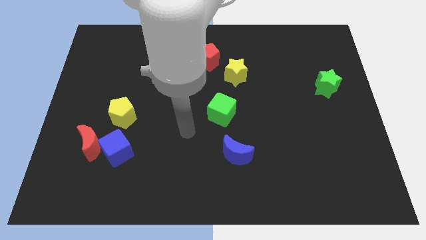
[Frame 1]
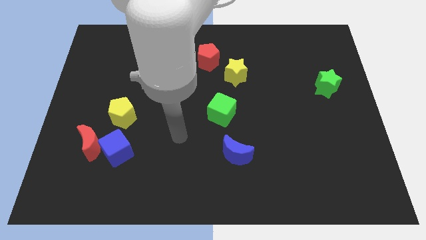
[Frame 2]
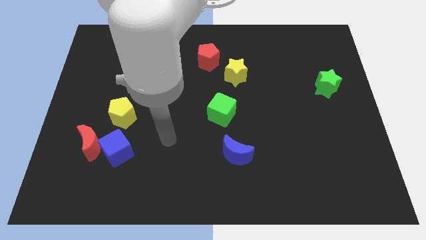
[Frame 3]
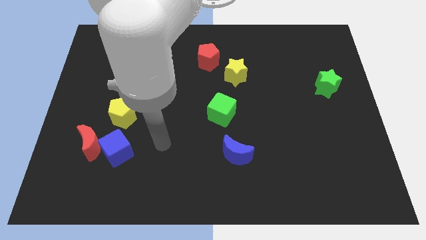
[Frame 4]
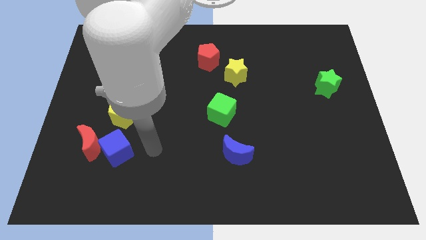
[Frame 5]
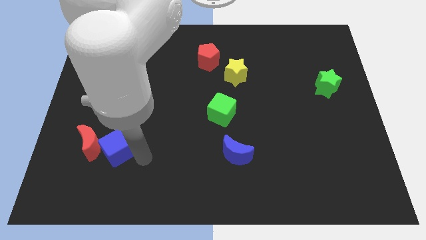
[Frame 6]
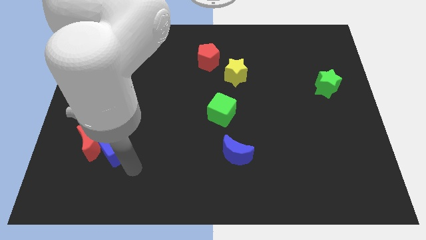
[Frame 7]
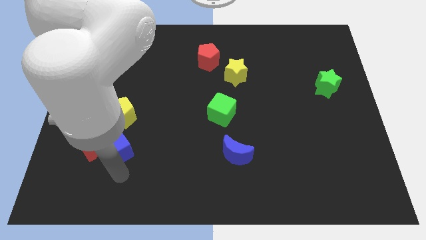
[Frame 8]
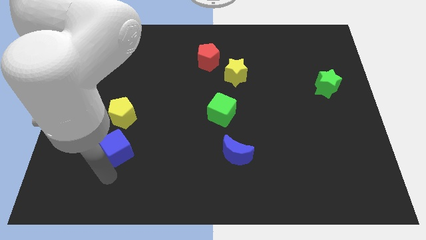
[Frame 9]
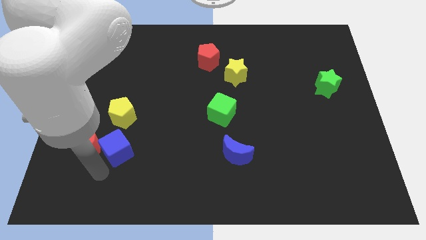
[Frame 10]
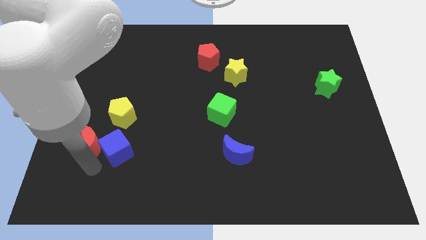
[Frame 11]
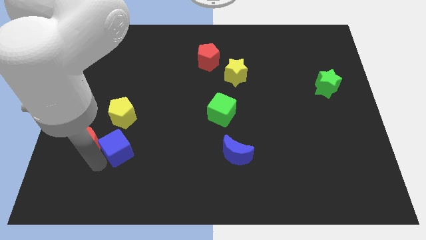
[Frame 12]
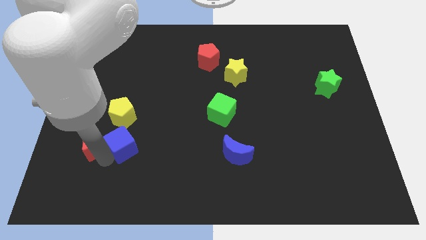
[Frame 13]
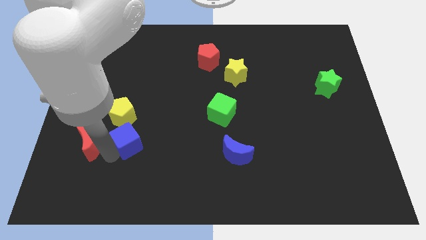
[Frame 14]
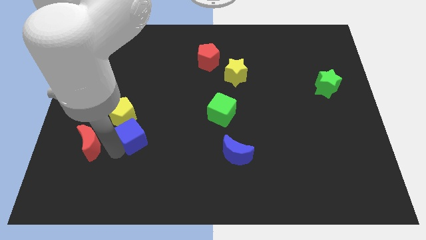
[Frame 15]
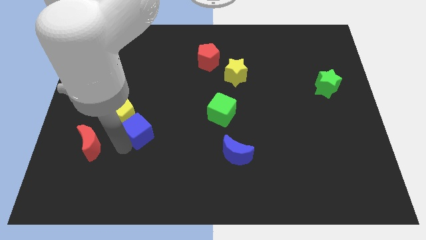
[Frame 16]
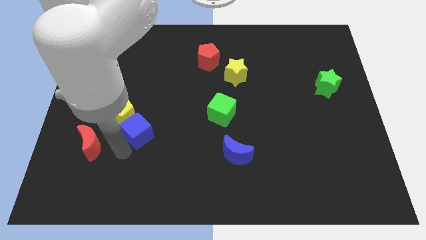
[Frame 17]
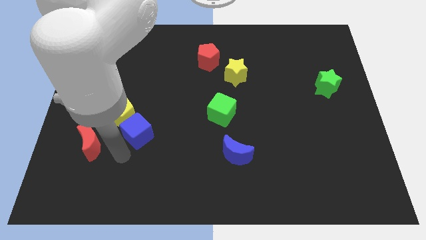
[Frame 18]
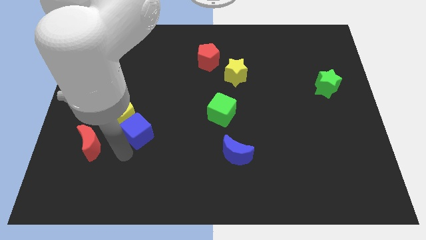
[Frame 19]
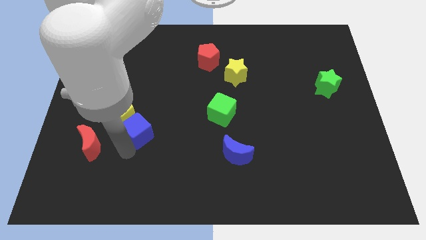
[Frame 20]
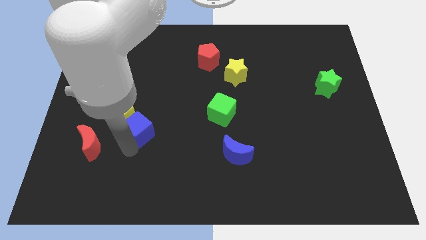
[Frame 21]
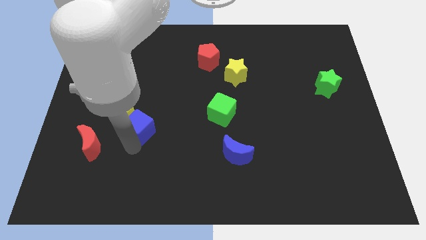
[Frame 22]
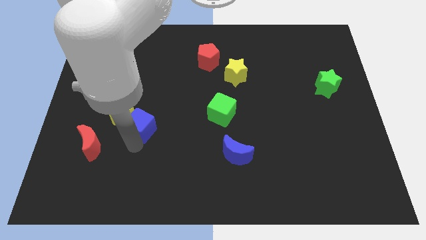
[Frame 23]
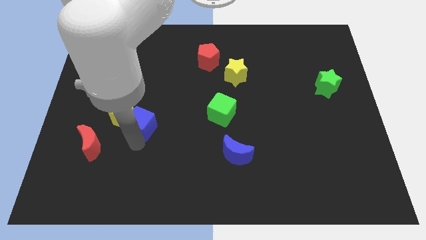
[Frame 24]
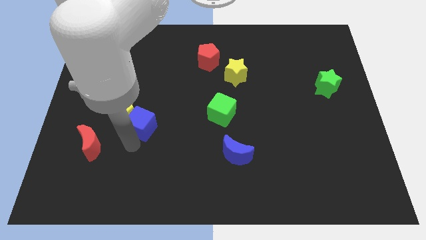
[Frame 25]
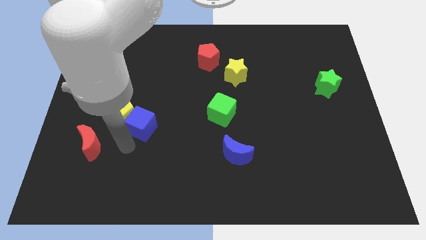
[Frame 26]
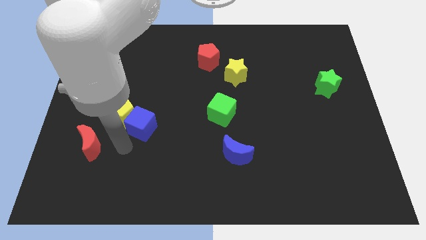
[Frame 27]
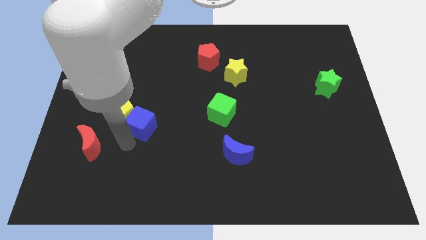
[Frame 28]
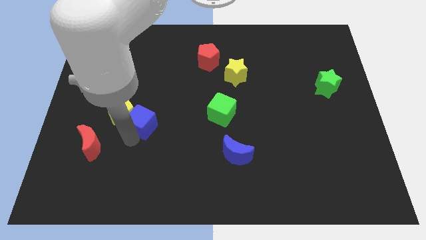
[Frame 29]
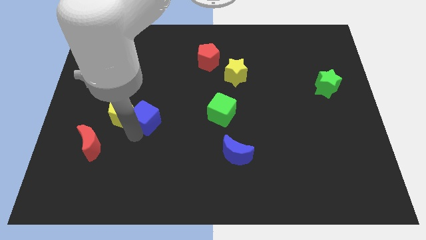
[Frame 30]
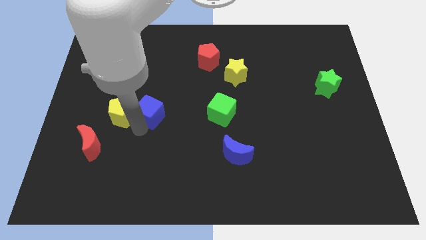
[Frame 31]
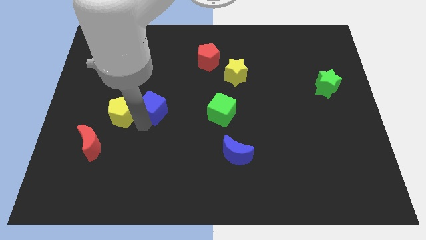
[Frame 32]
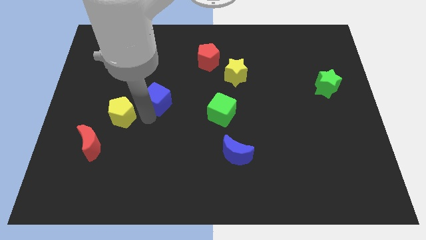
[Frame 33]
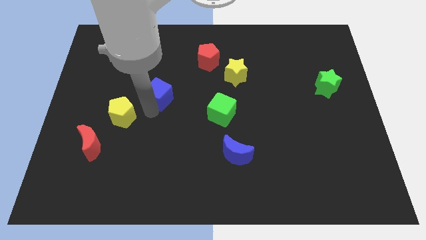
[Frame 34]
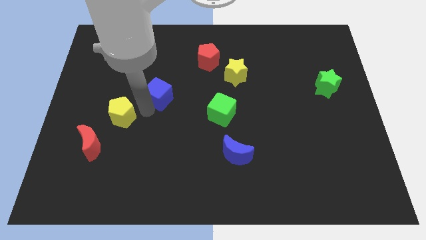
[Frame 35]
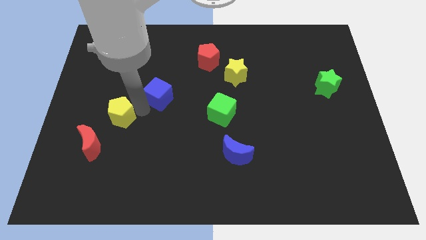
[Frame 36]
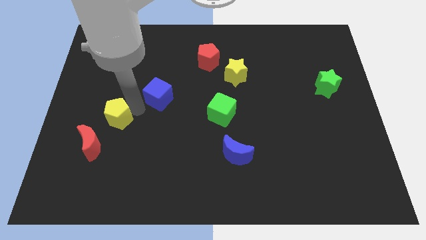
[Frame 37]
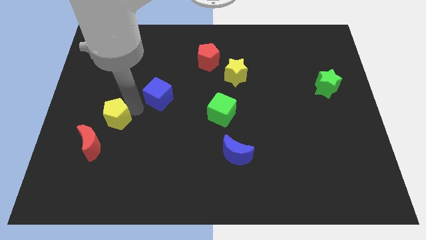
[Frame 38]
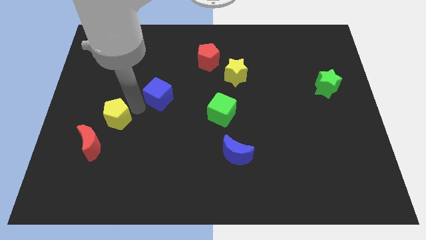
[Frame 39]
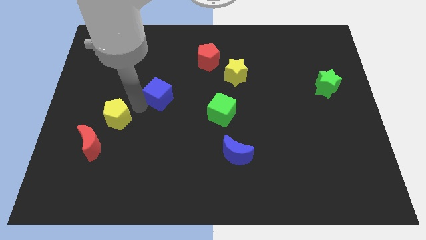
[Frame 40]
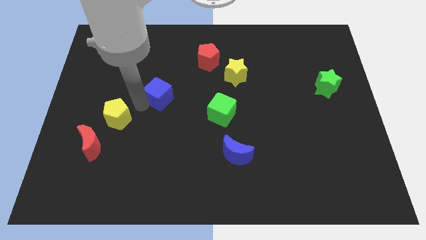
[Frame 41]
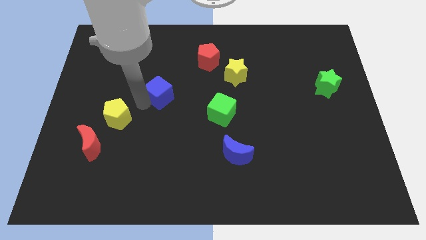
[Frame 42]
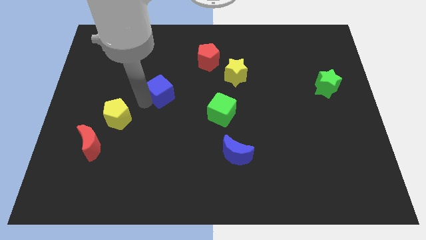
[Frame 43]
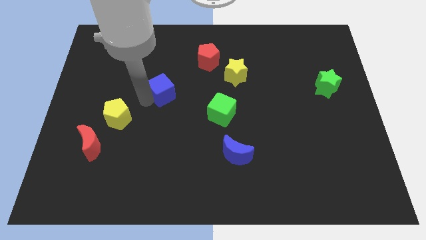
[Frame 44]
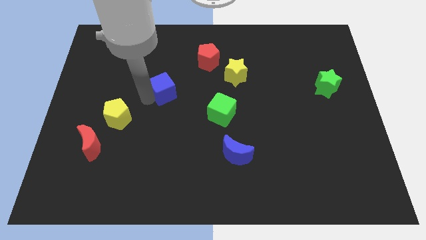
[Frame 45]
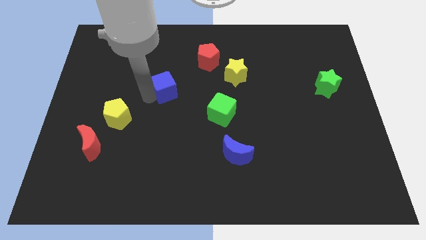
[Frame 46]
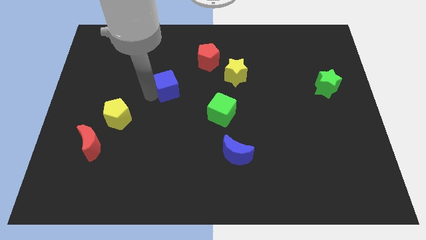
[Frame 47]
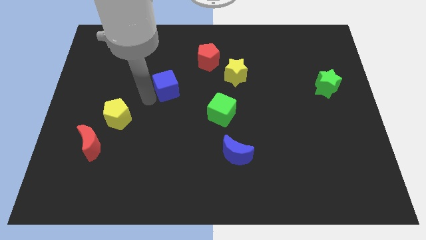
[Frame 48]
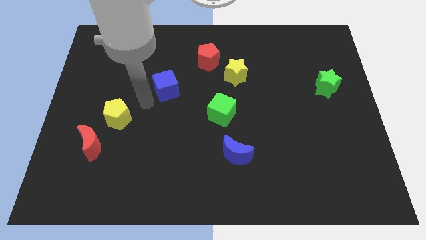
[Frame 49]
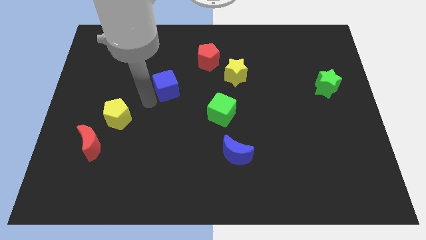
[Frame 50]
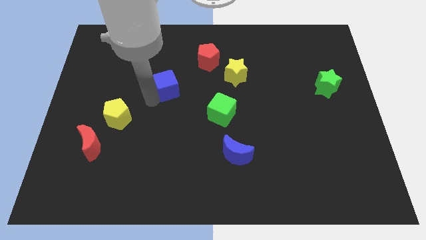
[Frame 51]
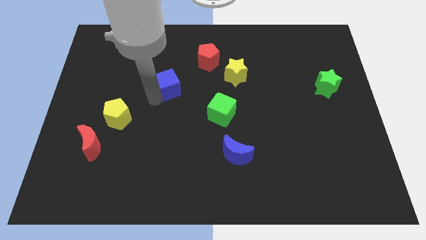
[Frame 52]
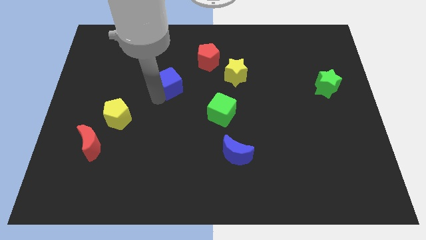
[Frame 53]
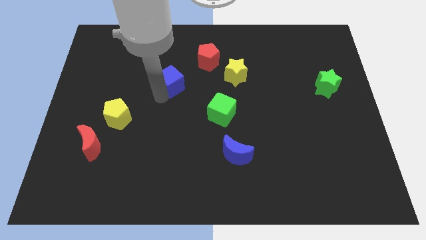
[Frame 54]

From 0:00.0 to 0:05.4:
move the blue cube diagonally down and to the left of the red pentagon

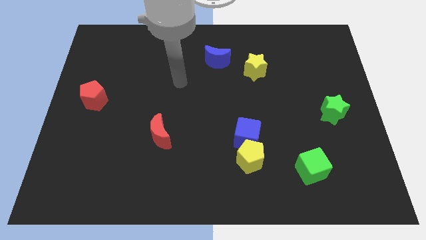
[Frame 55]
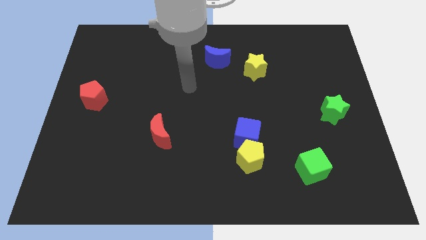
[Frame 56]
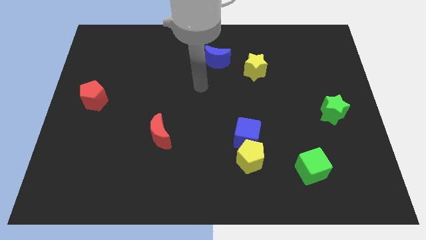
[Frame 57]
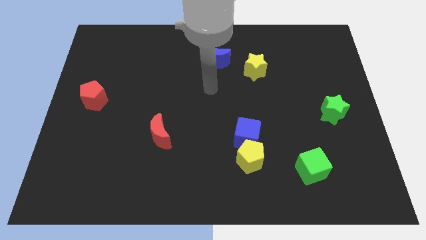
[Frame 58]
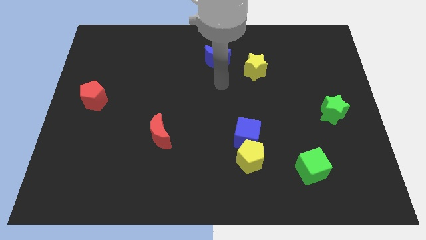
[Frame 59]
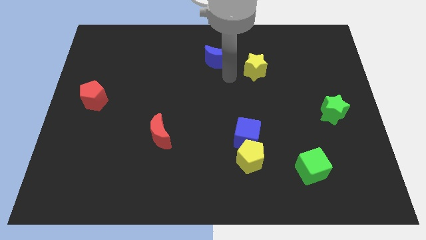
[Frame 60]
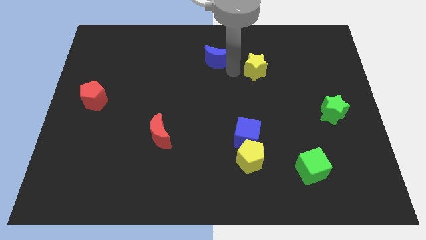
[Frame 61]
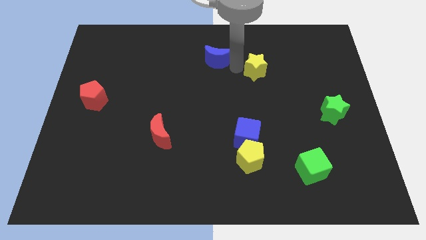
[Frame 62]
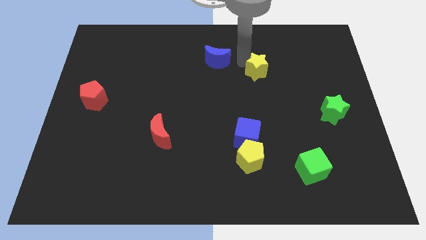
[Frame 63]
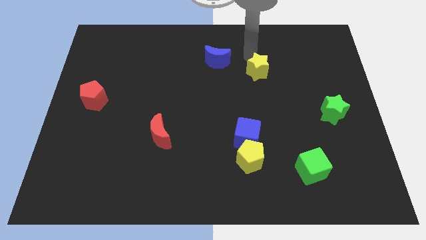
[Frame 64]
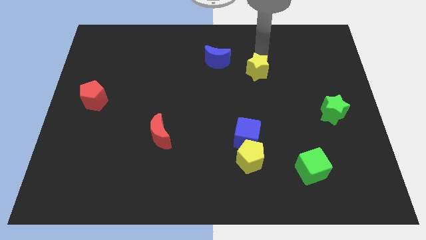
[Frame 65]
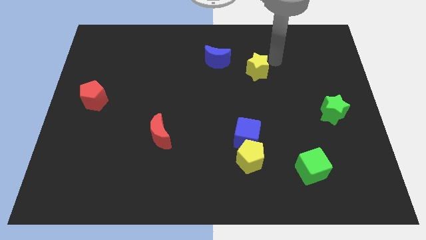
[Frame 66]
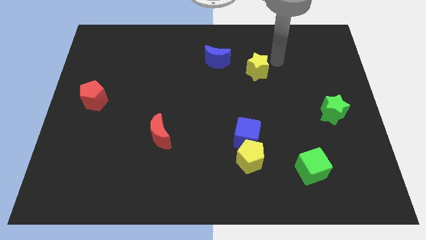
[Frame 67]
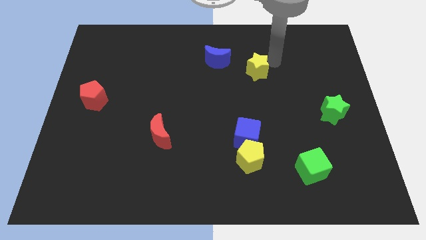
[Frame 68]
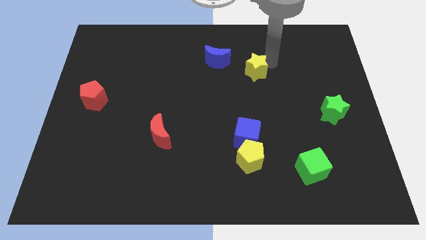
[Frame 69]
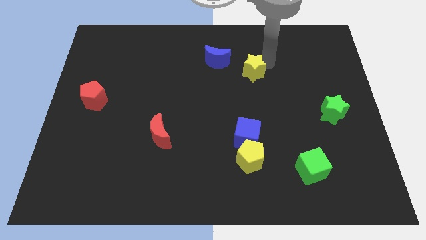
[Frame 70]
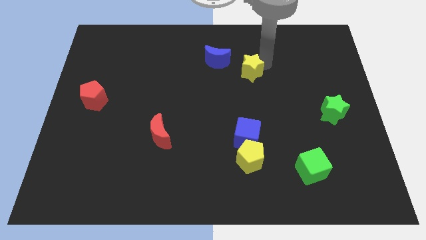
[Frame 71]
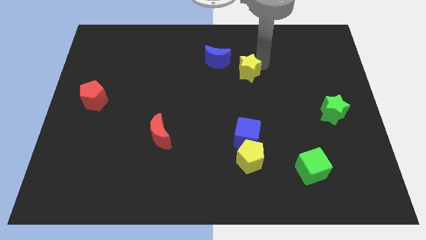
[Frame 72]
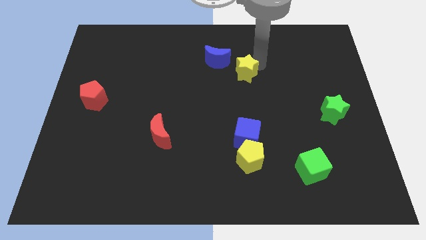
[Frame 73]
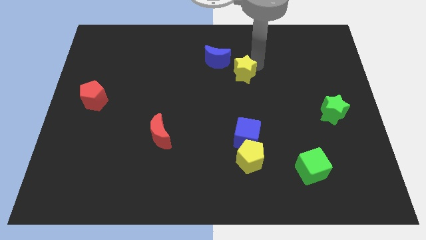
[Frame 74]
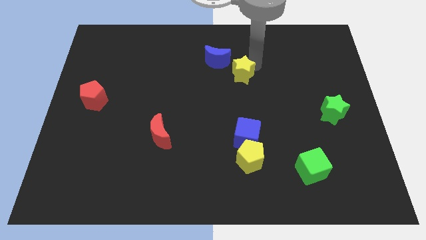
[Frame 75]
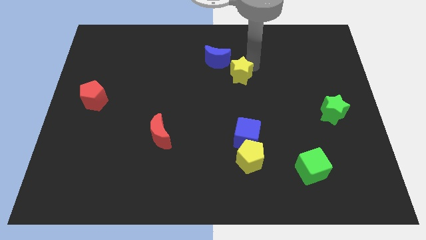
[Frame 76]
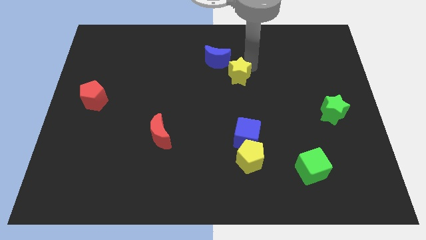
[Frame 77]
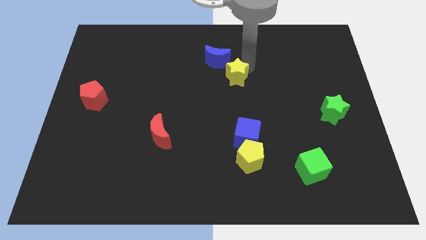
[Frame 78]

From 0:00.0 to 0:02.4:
push the yellow star below the blue moon
